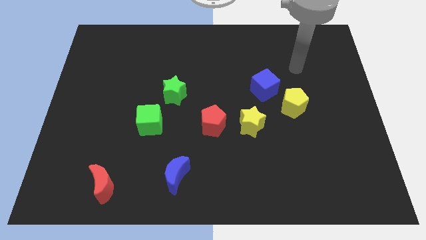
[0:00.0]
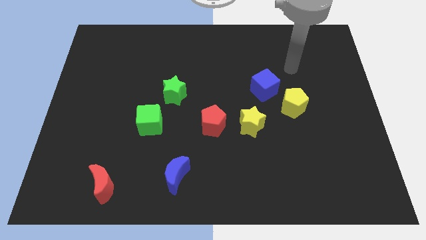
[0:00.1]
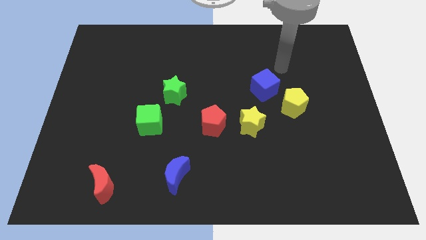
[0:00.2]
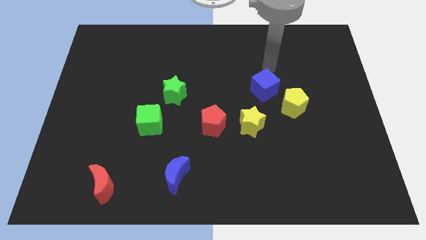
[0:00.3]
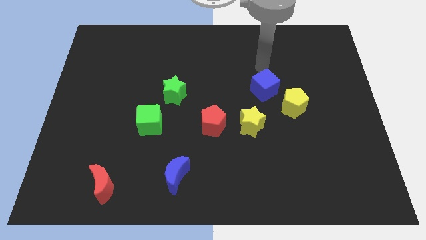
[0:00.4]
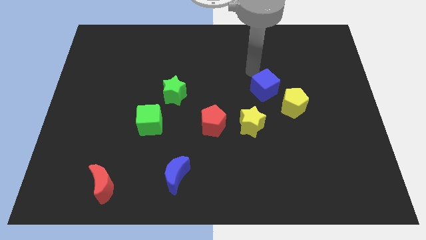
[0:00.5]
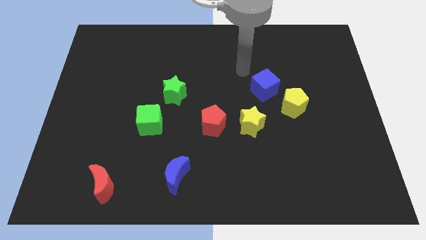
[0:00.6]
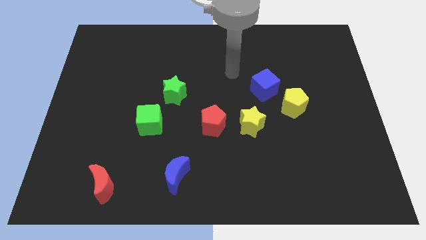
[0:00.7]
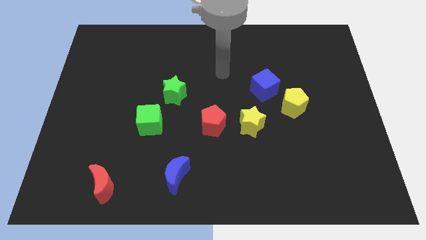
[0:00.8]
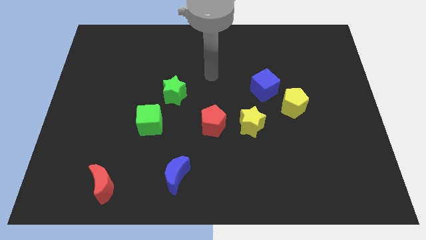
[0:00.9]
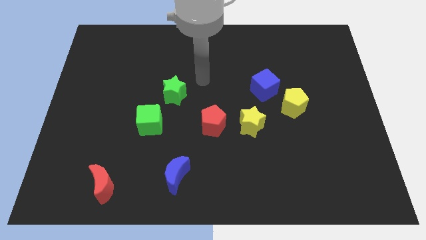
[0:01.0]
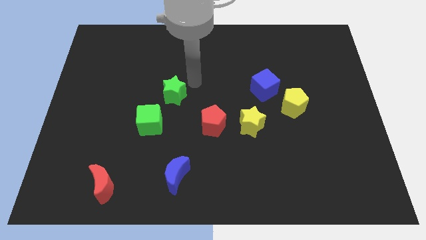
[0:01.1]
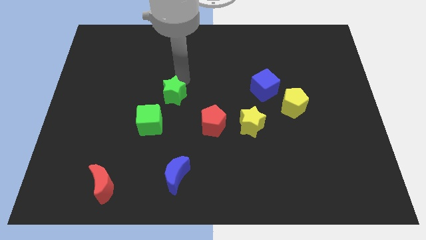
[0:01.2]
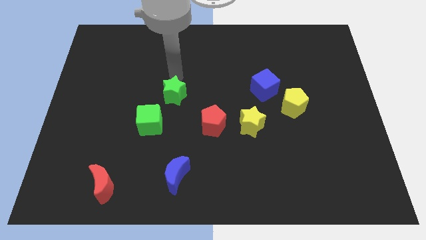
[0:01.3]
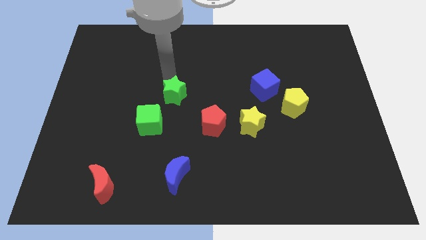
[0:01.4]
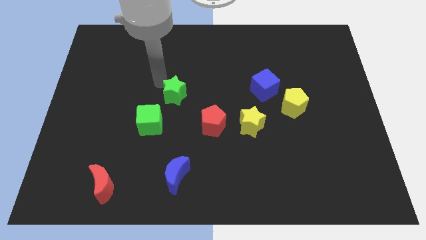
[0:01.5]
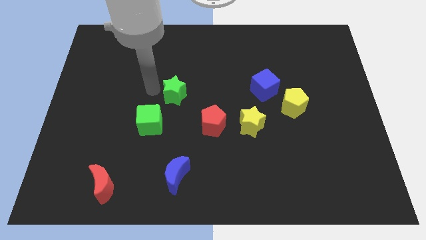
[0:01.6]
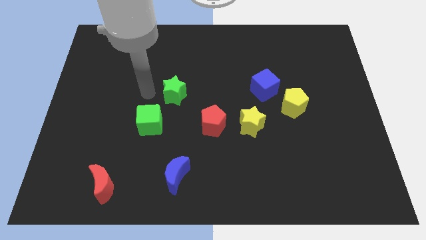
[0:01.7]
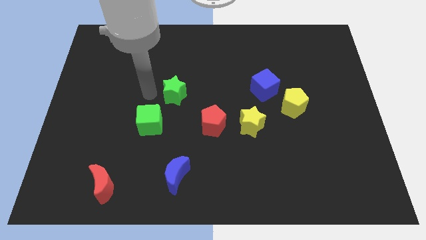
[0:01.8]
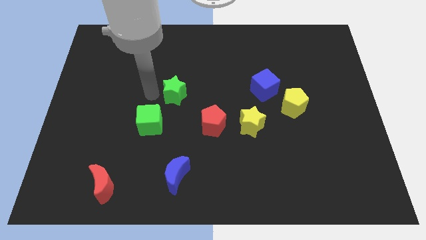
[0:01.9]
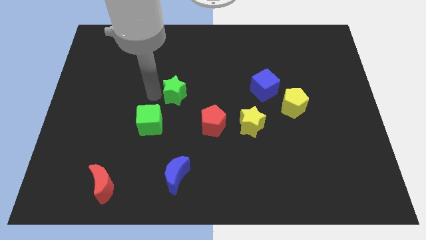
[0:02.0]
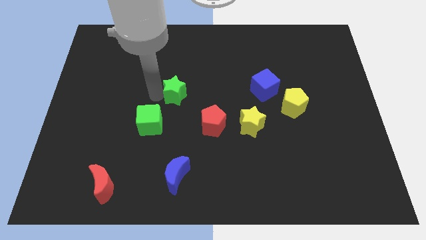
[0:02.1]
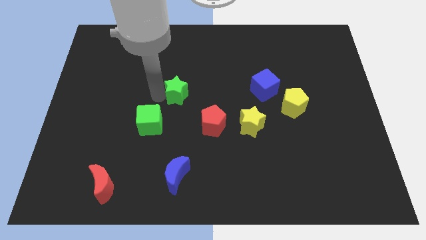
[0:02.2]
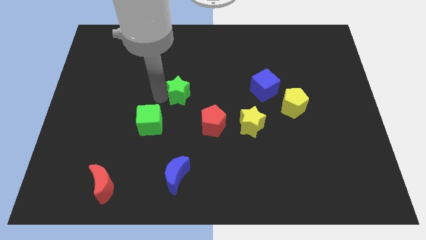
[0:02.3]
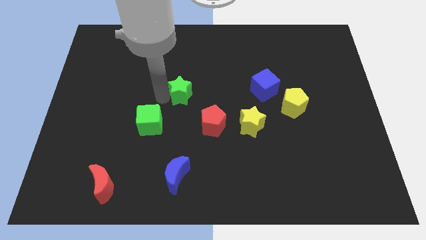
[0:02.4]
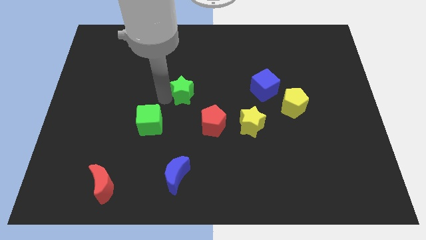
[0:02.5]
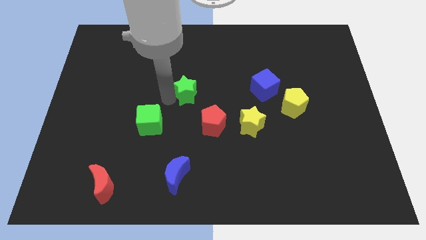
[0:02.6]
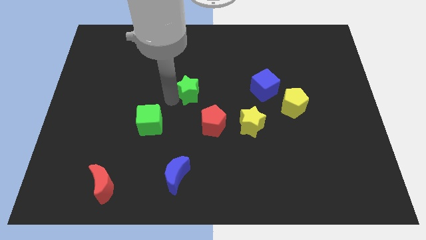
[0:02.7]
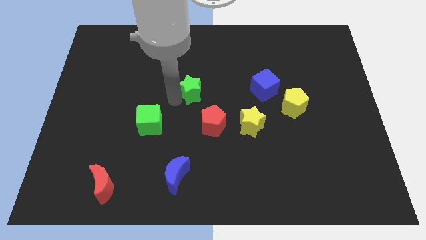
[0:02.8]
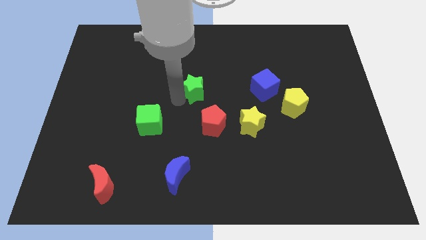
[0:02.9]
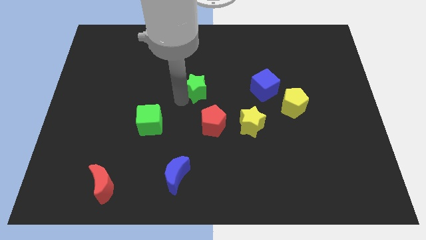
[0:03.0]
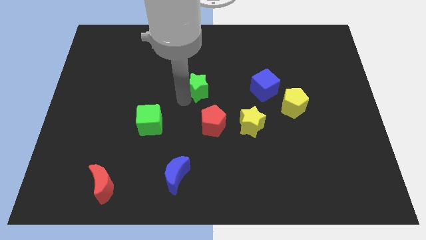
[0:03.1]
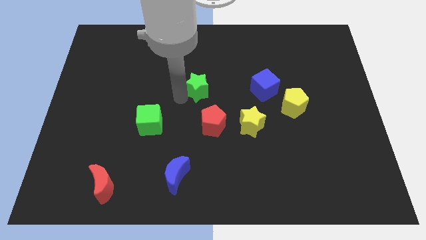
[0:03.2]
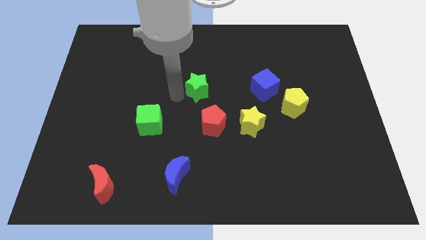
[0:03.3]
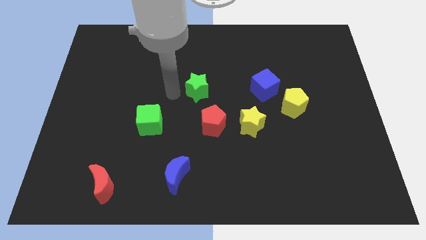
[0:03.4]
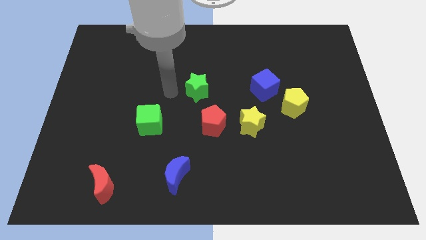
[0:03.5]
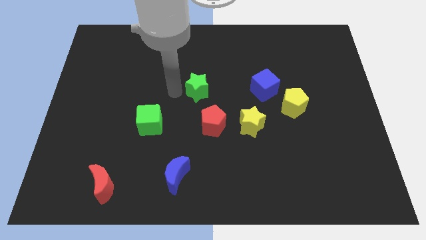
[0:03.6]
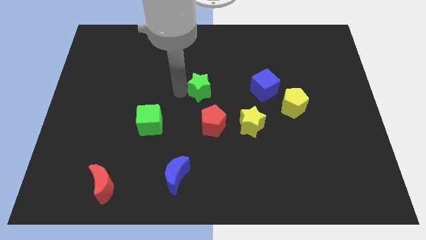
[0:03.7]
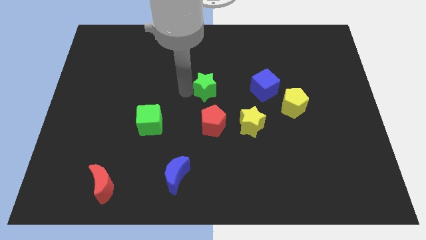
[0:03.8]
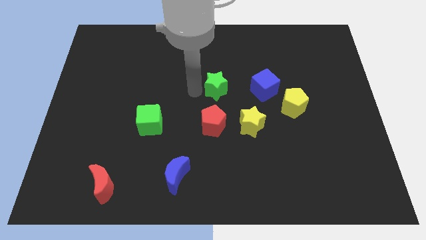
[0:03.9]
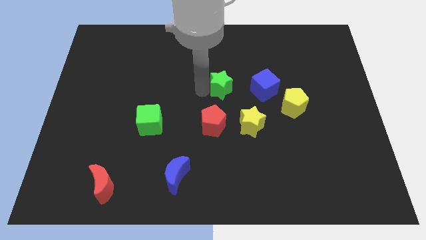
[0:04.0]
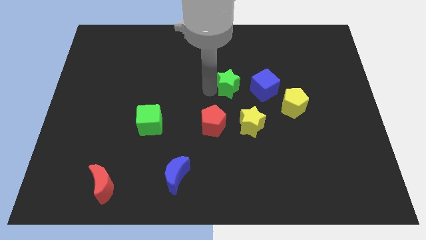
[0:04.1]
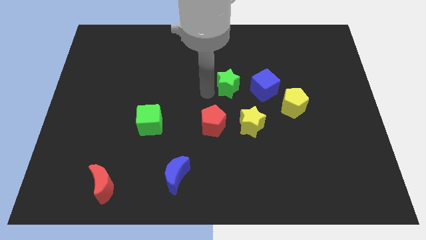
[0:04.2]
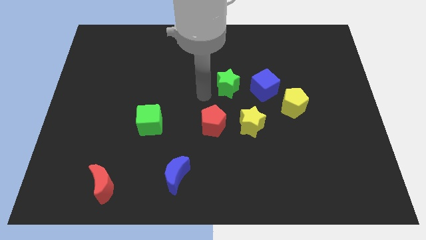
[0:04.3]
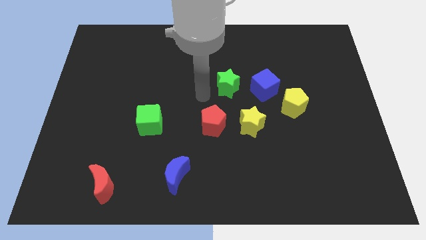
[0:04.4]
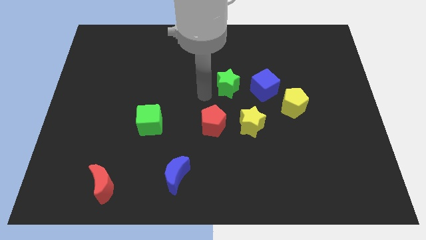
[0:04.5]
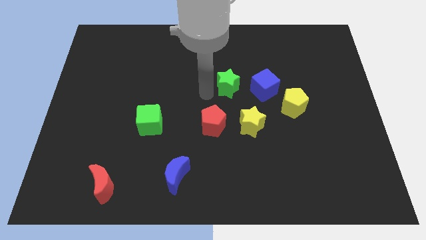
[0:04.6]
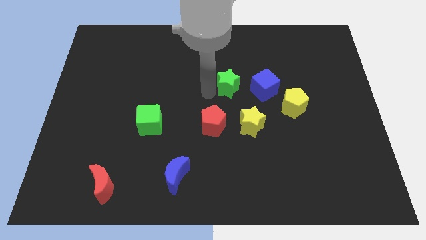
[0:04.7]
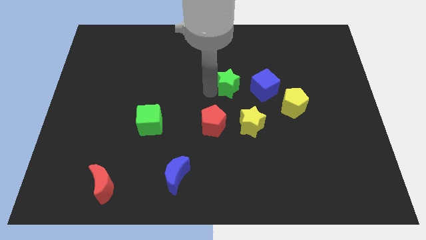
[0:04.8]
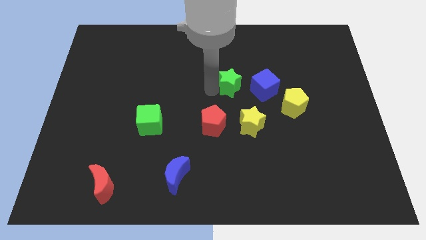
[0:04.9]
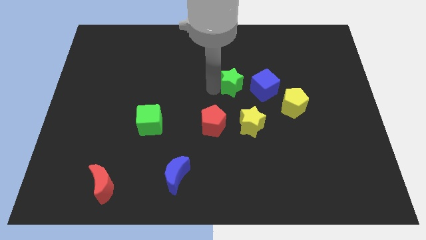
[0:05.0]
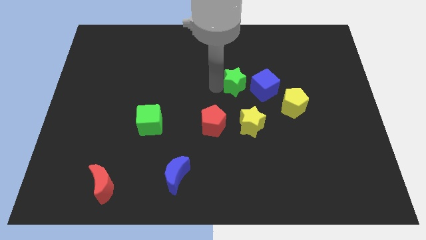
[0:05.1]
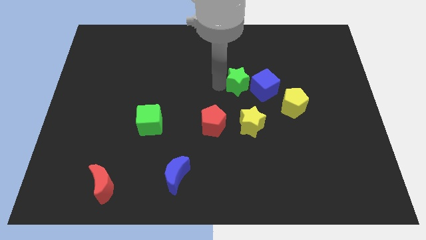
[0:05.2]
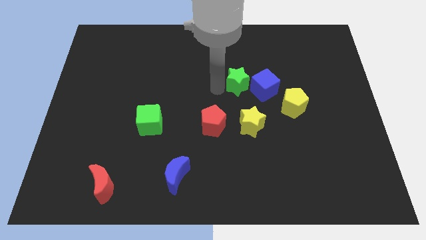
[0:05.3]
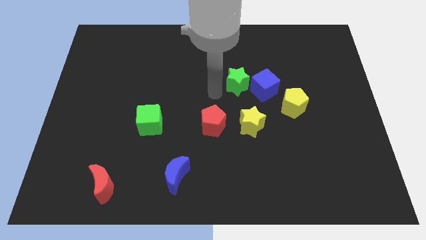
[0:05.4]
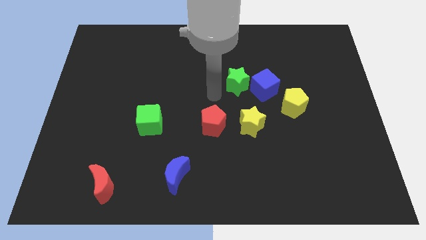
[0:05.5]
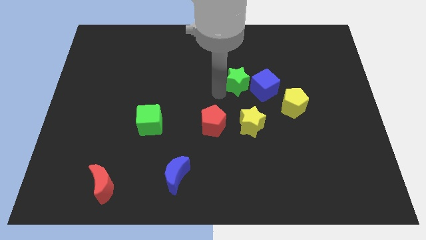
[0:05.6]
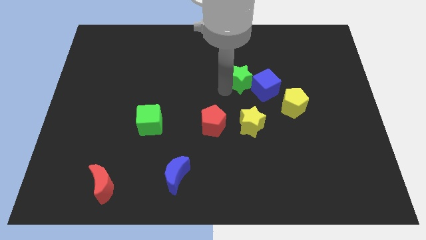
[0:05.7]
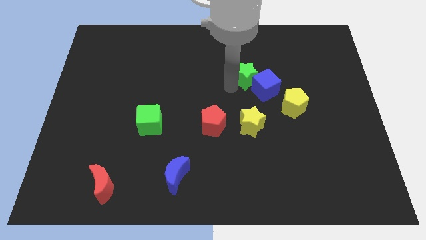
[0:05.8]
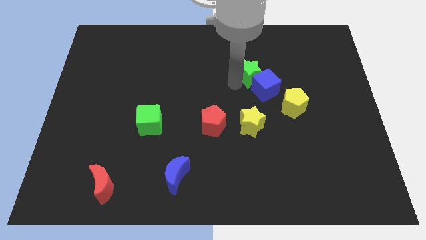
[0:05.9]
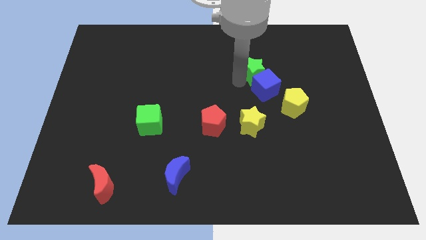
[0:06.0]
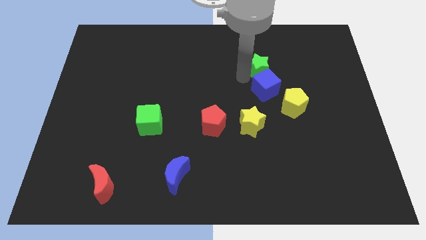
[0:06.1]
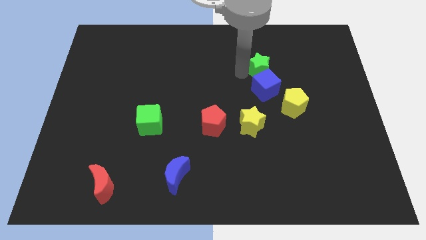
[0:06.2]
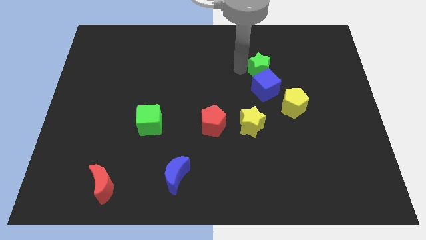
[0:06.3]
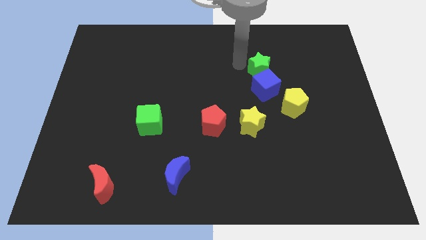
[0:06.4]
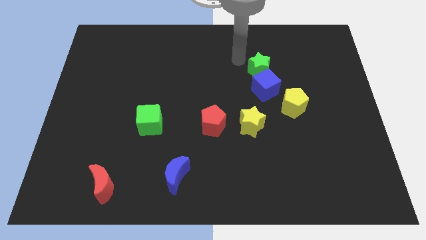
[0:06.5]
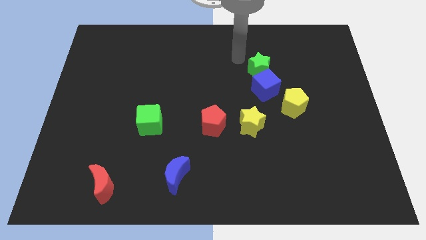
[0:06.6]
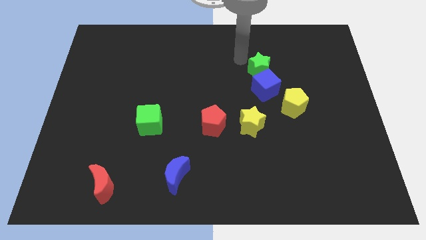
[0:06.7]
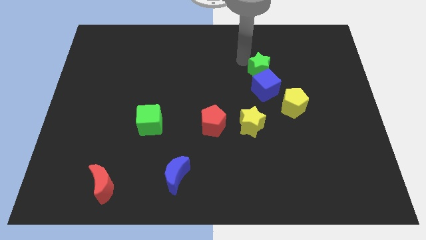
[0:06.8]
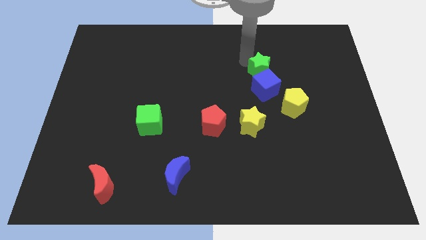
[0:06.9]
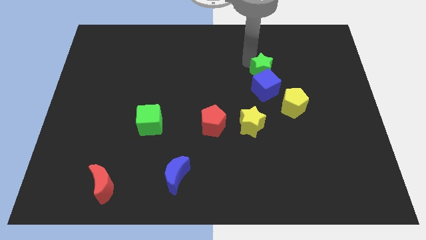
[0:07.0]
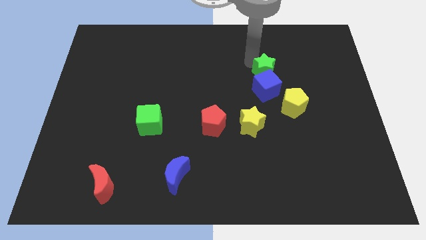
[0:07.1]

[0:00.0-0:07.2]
slide the green star to the right

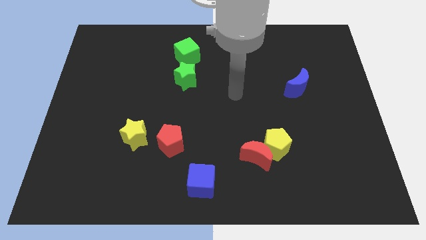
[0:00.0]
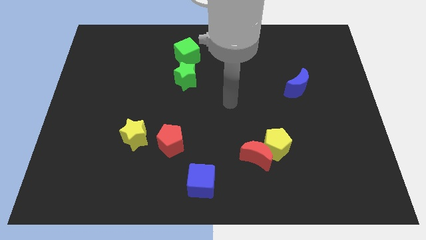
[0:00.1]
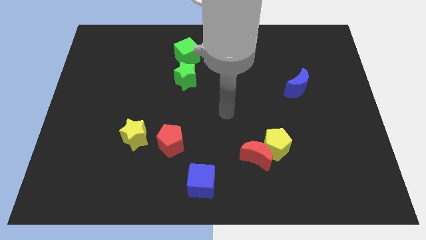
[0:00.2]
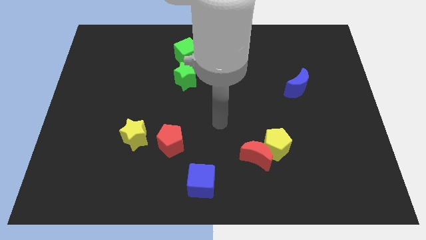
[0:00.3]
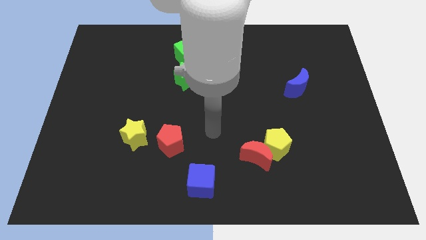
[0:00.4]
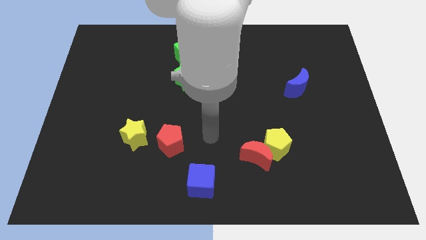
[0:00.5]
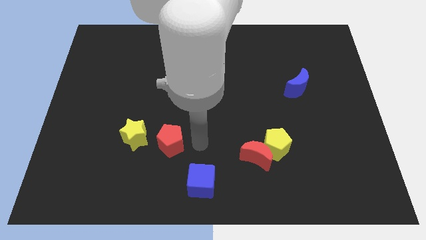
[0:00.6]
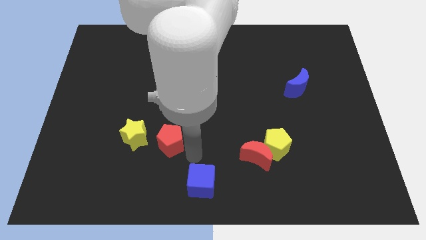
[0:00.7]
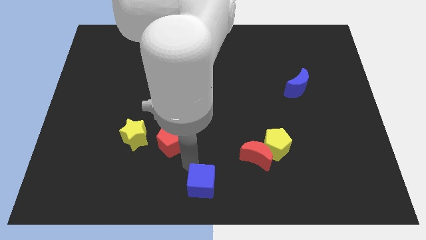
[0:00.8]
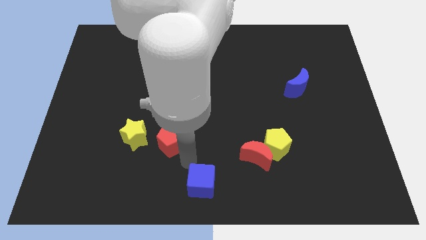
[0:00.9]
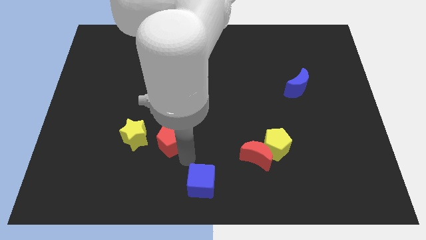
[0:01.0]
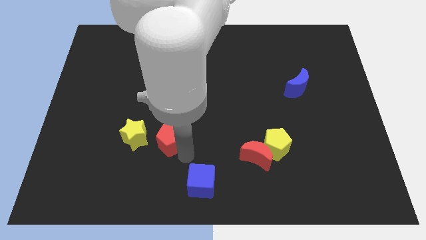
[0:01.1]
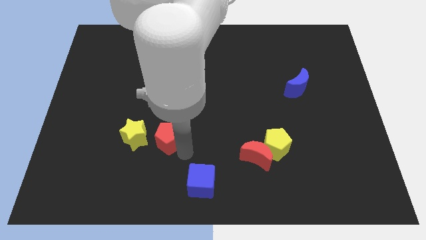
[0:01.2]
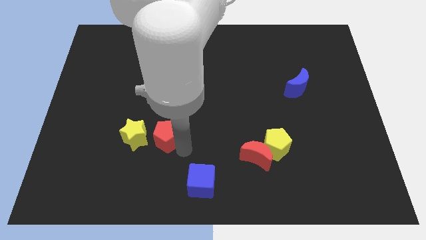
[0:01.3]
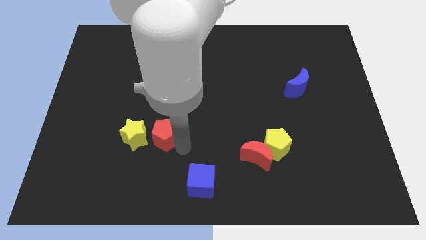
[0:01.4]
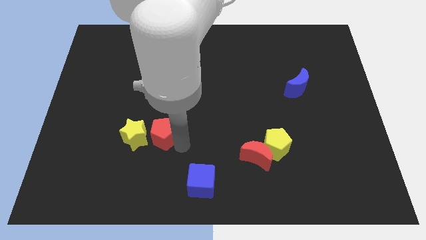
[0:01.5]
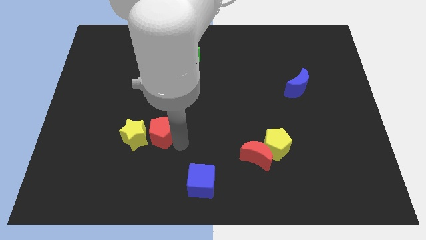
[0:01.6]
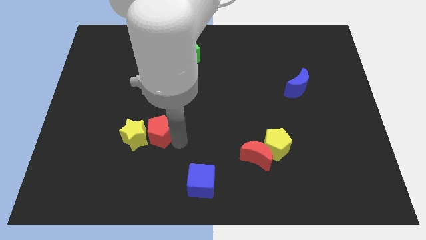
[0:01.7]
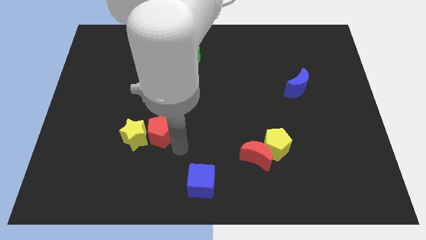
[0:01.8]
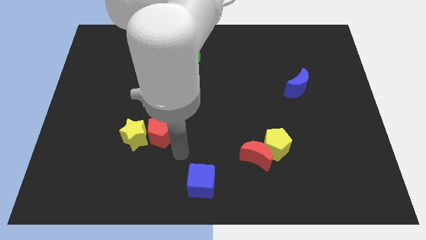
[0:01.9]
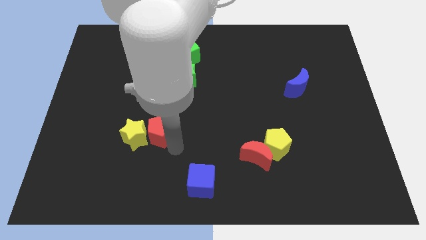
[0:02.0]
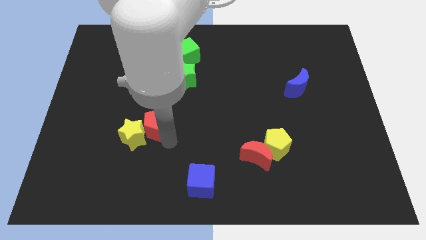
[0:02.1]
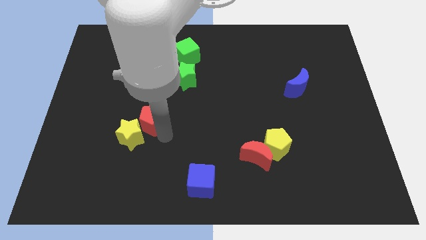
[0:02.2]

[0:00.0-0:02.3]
move the red pentagon diagonally upwards and left somewhat
